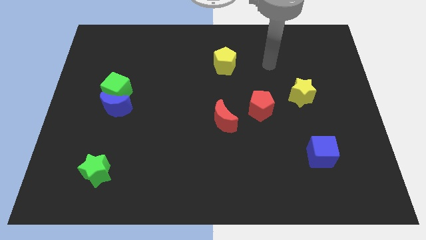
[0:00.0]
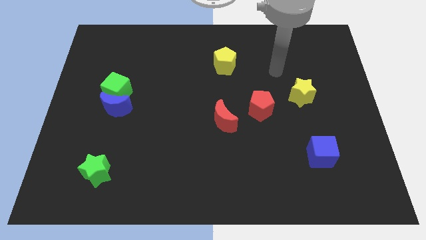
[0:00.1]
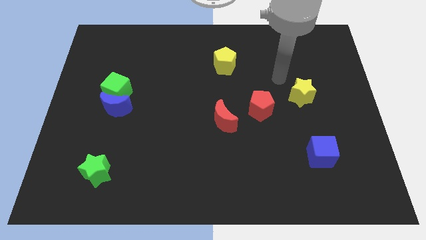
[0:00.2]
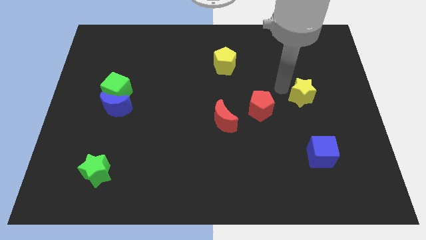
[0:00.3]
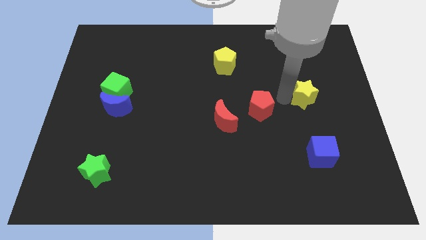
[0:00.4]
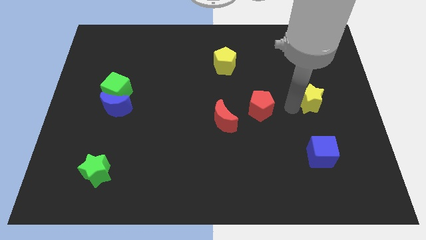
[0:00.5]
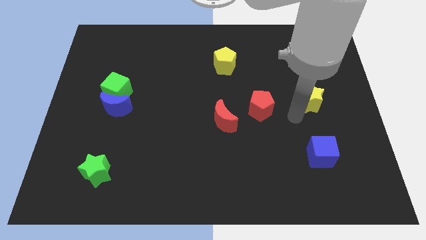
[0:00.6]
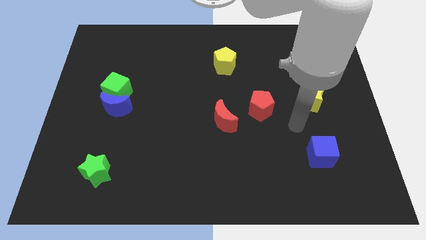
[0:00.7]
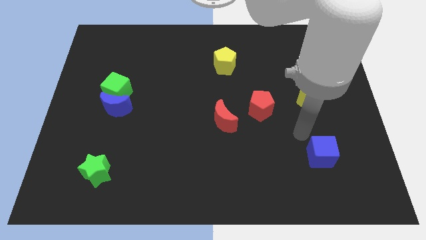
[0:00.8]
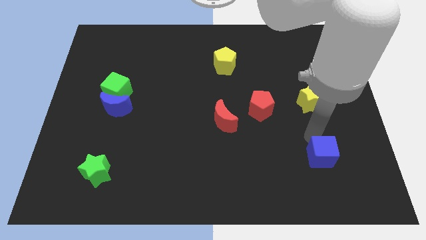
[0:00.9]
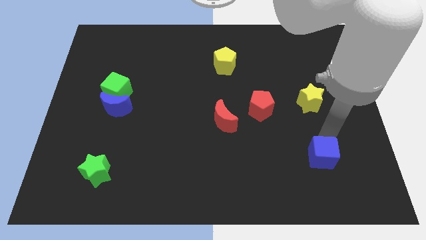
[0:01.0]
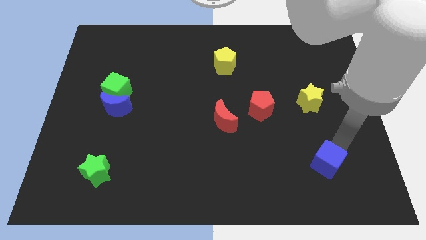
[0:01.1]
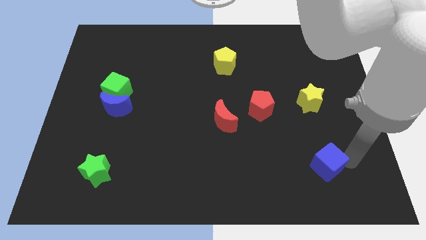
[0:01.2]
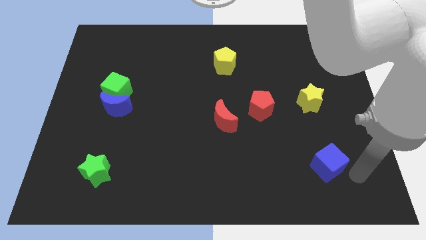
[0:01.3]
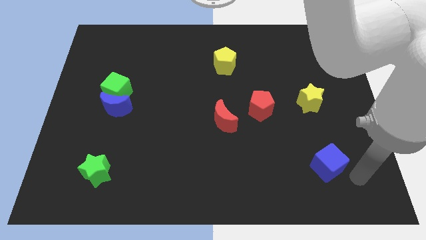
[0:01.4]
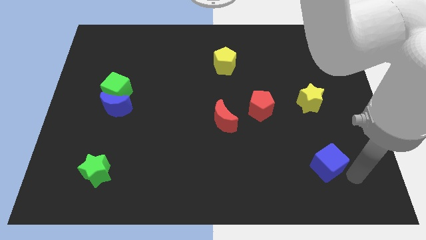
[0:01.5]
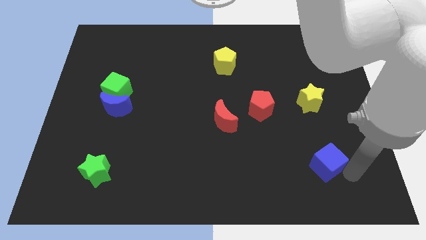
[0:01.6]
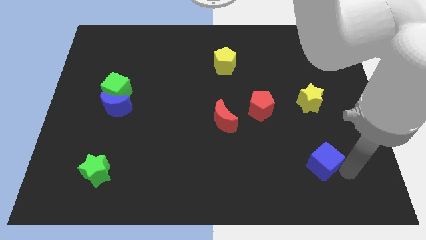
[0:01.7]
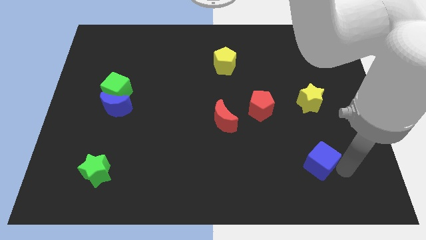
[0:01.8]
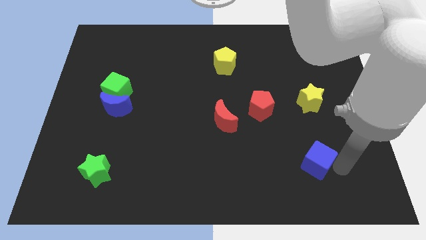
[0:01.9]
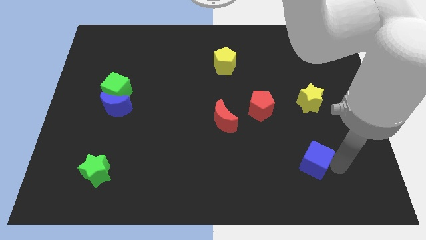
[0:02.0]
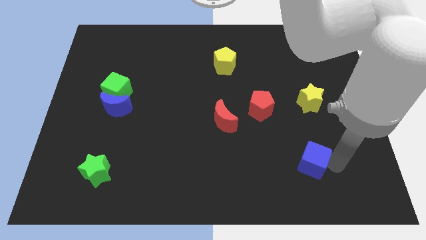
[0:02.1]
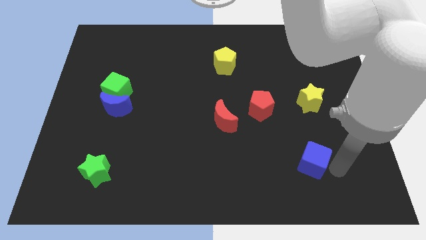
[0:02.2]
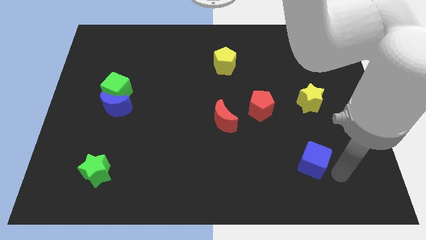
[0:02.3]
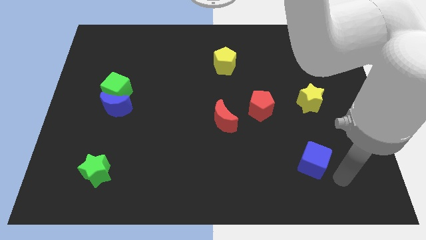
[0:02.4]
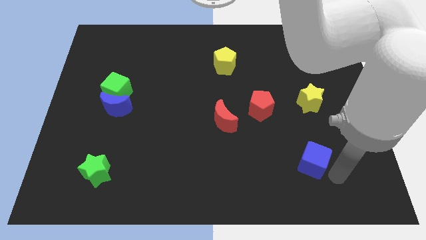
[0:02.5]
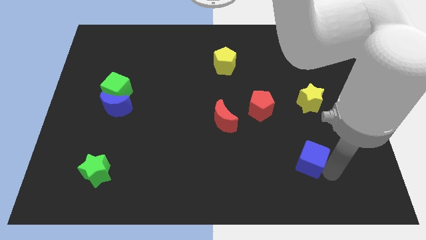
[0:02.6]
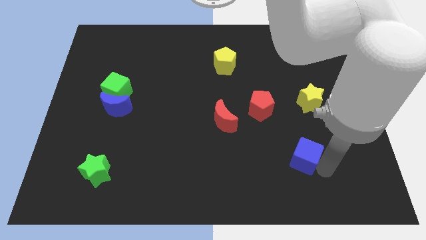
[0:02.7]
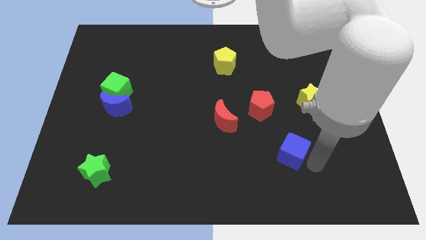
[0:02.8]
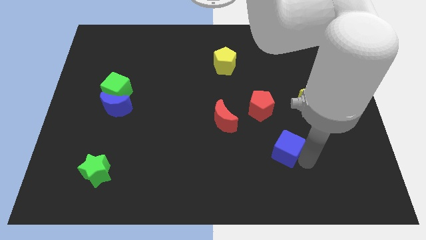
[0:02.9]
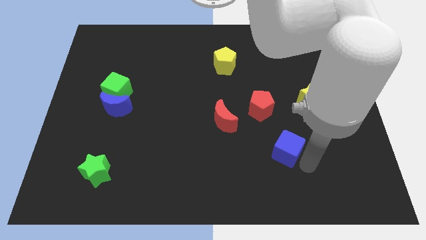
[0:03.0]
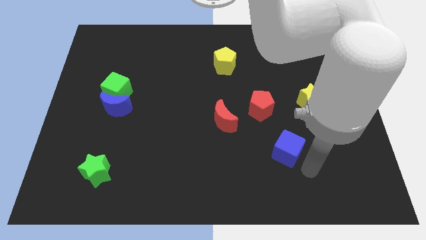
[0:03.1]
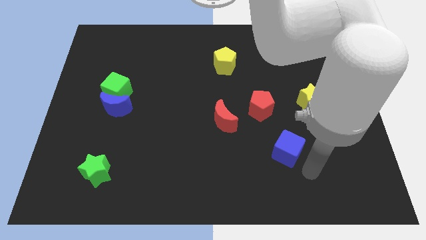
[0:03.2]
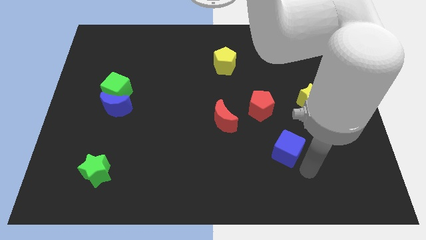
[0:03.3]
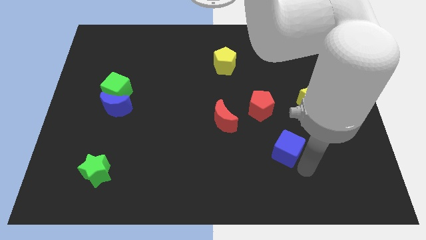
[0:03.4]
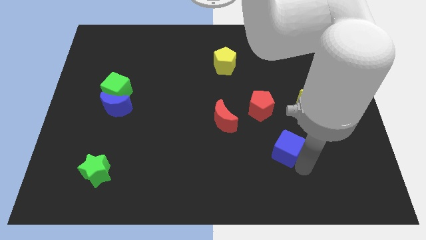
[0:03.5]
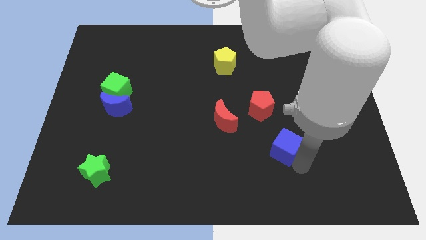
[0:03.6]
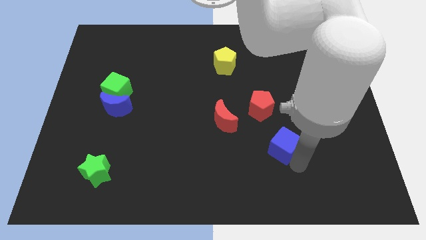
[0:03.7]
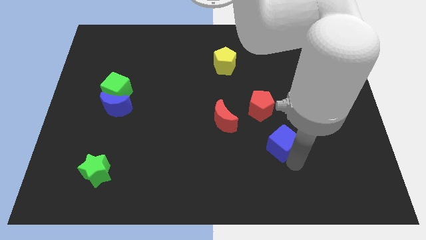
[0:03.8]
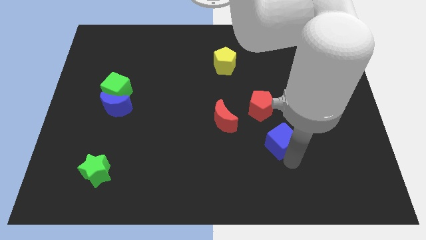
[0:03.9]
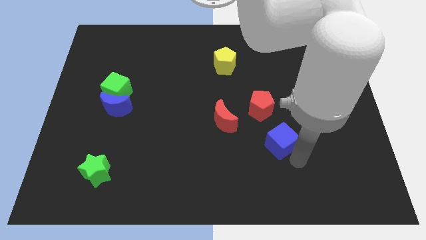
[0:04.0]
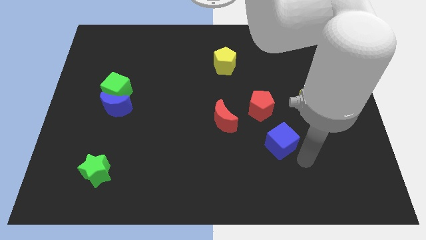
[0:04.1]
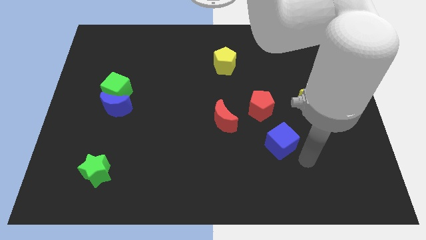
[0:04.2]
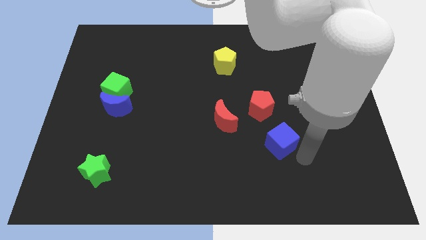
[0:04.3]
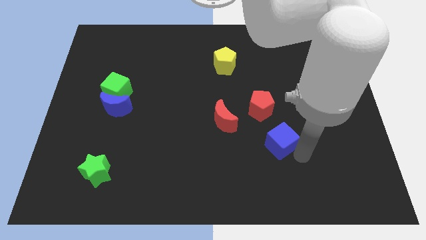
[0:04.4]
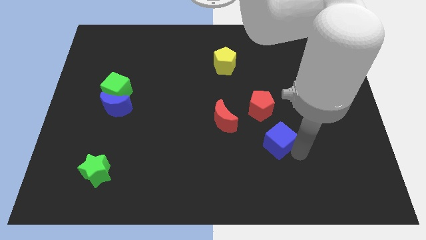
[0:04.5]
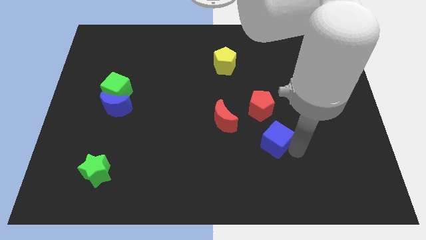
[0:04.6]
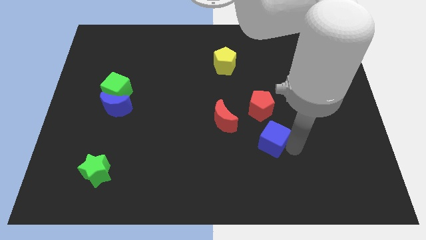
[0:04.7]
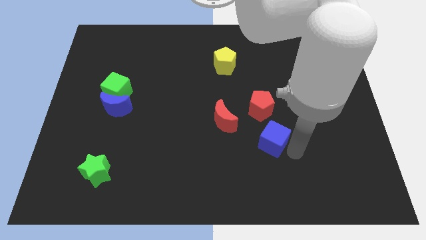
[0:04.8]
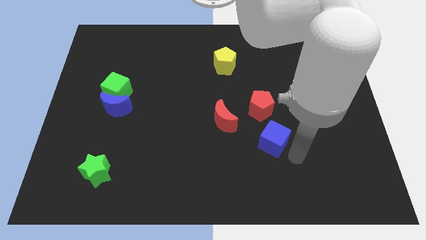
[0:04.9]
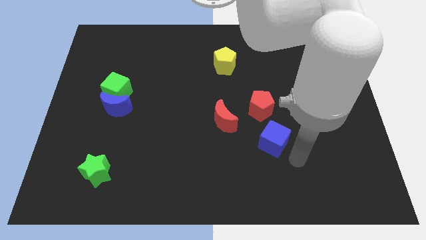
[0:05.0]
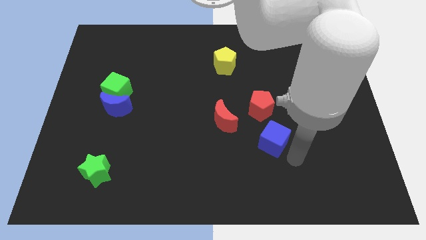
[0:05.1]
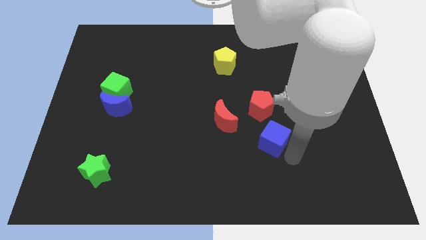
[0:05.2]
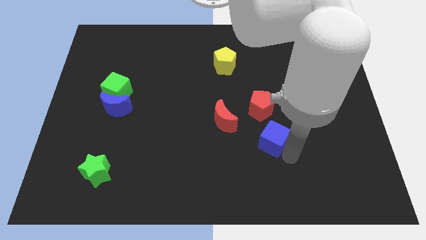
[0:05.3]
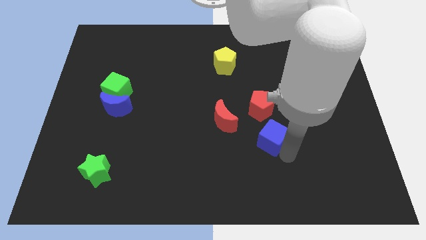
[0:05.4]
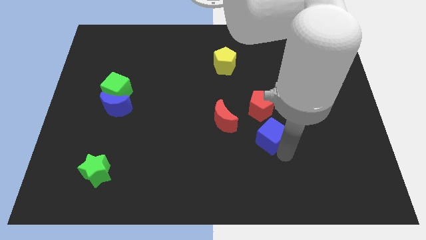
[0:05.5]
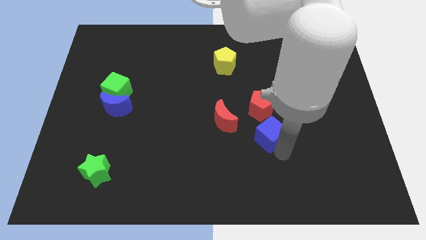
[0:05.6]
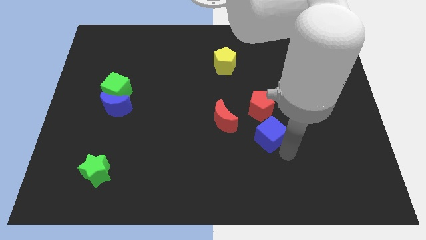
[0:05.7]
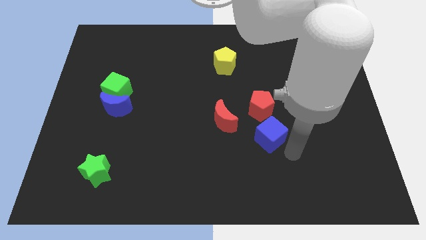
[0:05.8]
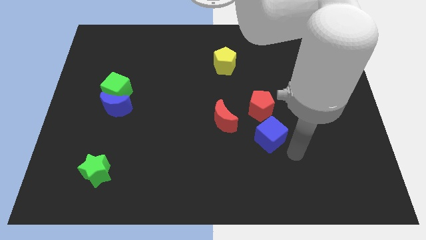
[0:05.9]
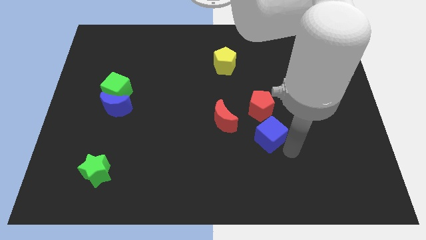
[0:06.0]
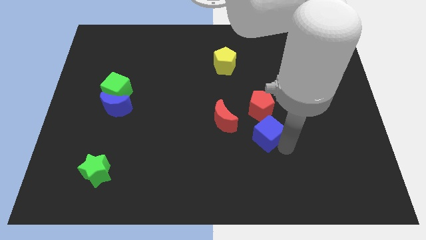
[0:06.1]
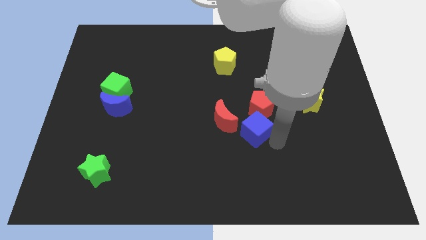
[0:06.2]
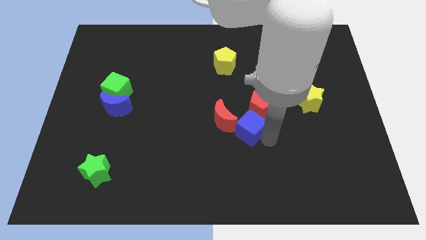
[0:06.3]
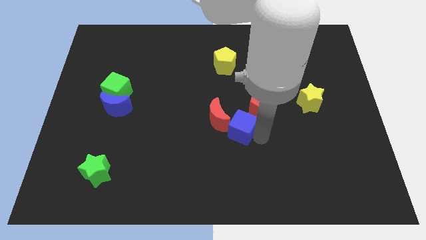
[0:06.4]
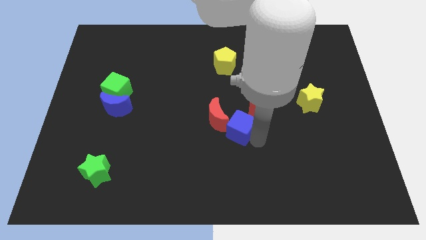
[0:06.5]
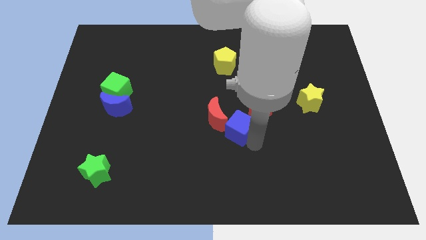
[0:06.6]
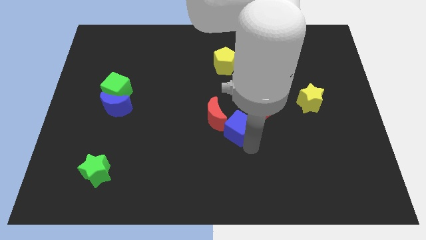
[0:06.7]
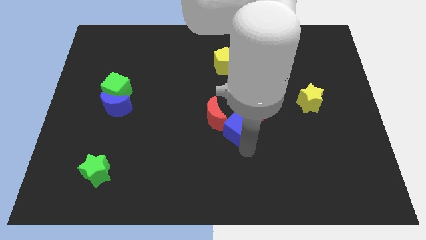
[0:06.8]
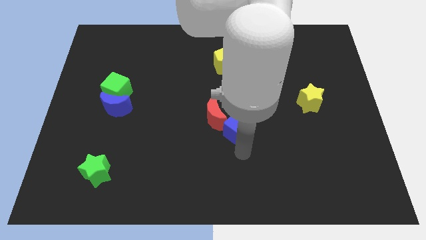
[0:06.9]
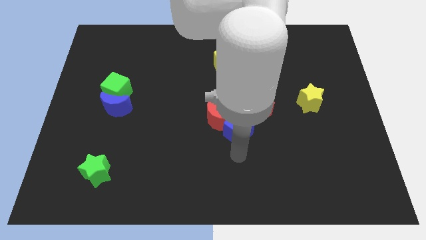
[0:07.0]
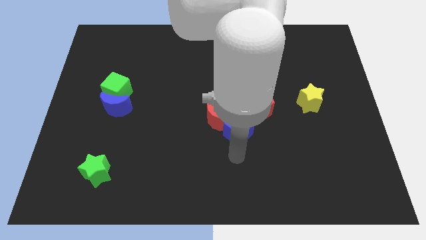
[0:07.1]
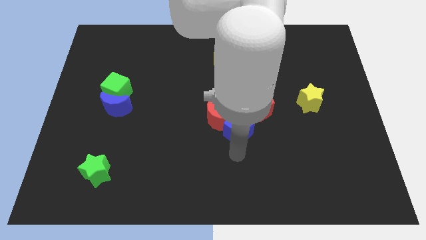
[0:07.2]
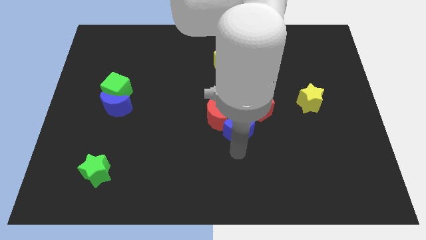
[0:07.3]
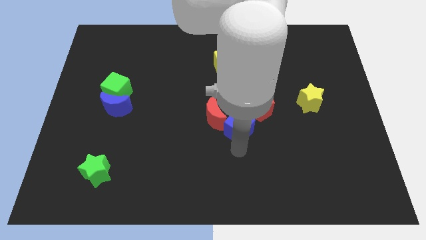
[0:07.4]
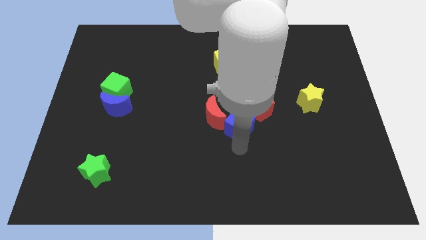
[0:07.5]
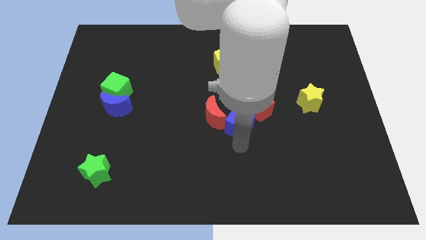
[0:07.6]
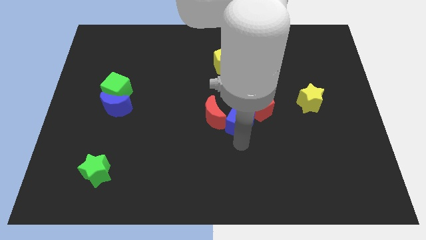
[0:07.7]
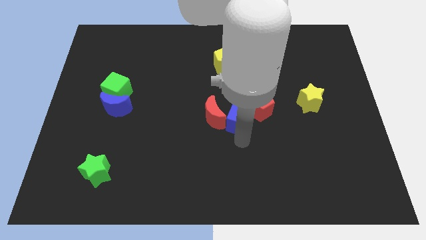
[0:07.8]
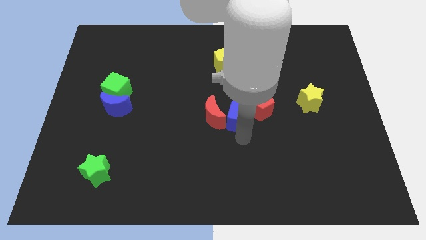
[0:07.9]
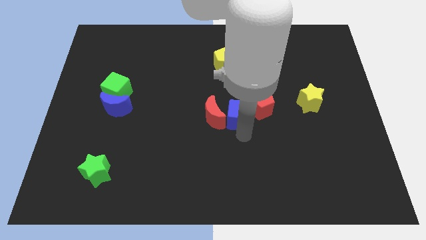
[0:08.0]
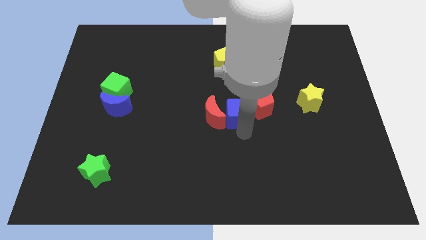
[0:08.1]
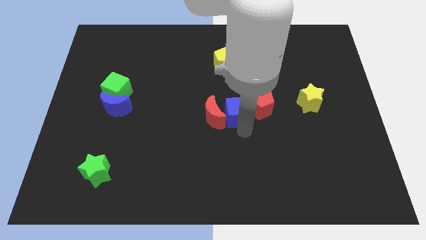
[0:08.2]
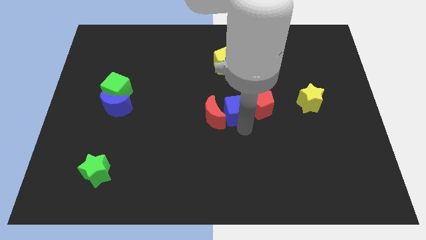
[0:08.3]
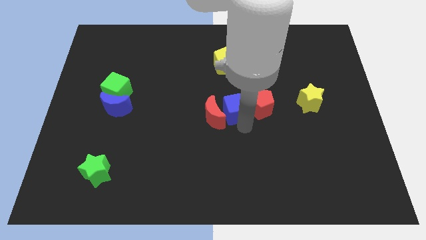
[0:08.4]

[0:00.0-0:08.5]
push the blue cube upwards and to the left diagonally
